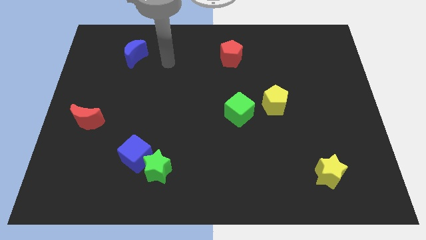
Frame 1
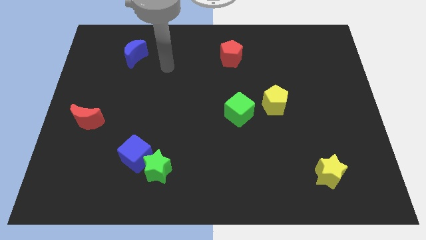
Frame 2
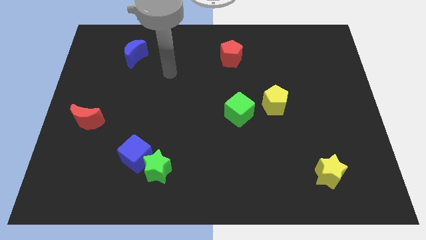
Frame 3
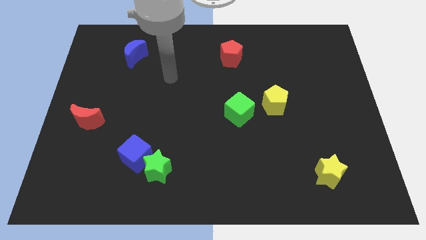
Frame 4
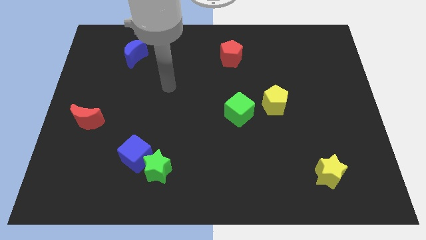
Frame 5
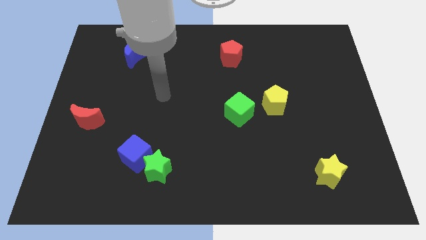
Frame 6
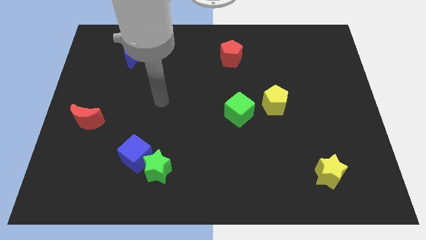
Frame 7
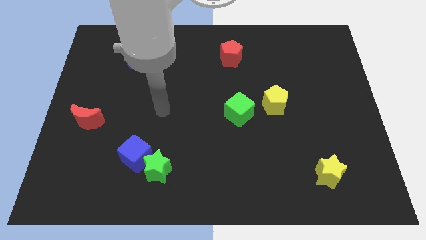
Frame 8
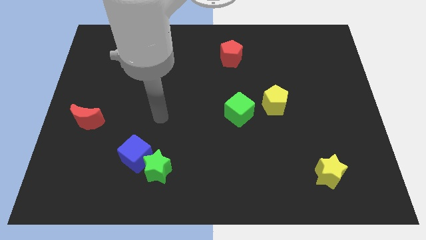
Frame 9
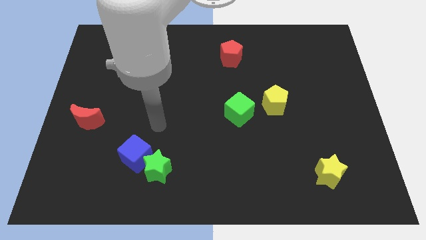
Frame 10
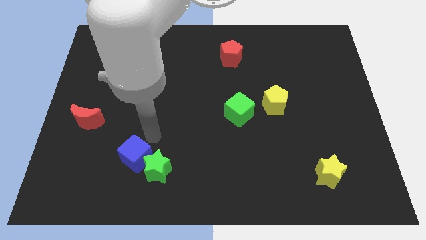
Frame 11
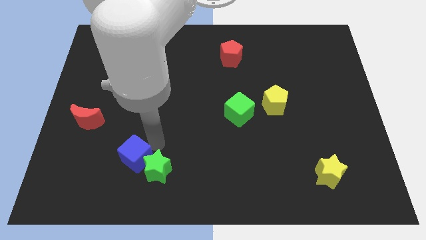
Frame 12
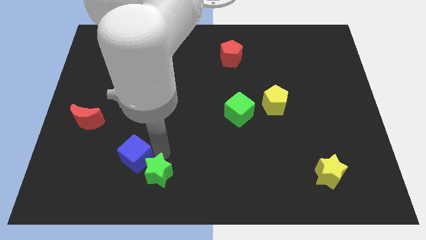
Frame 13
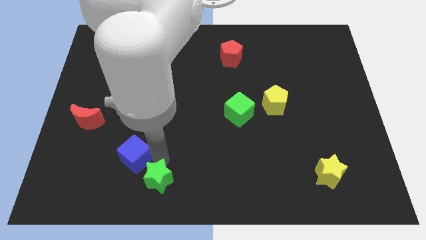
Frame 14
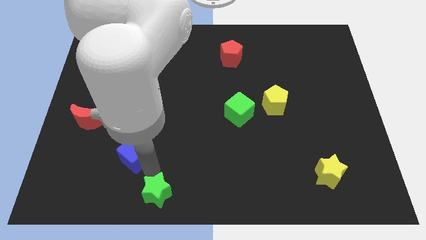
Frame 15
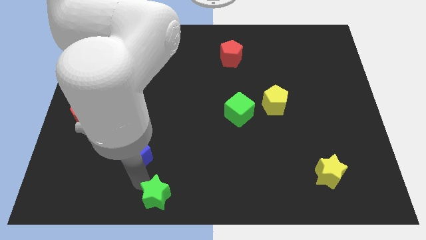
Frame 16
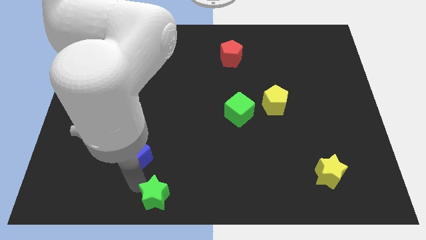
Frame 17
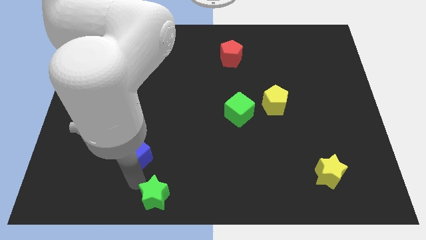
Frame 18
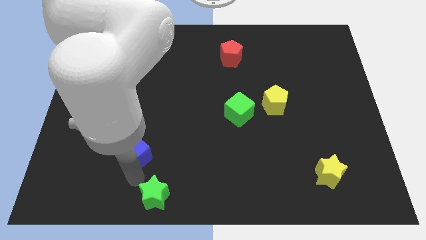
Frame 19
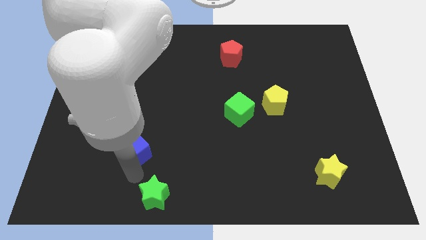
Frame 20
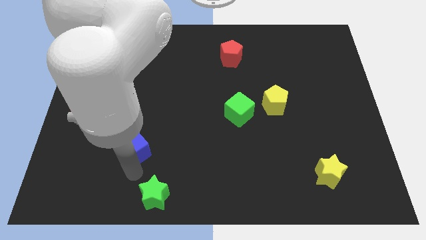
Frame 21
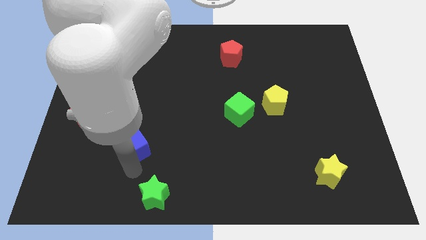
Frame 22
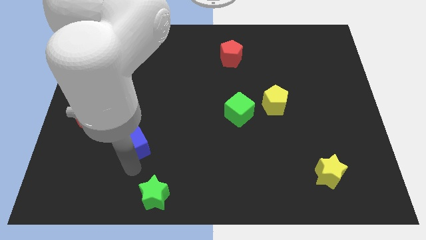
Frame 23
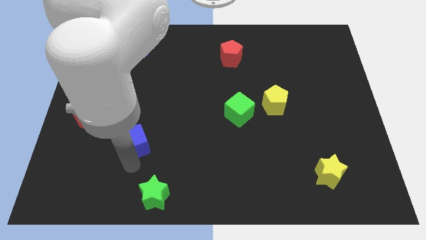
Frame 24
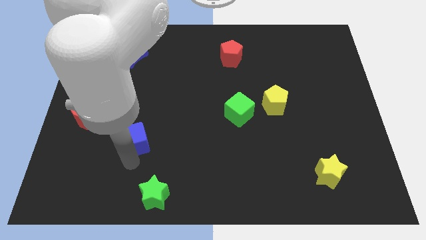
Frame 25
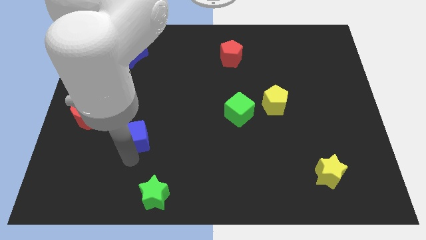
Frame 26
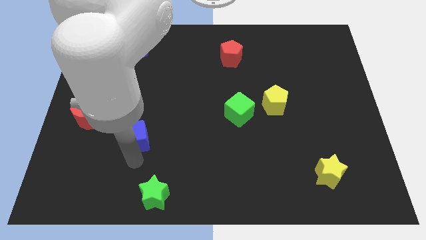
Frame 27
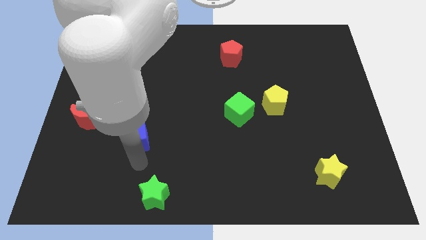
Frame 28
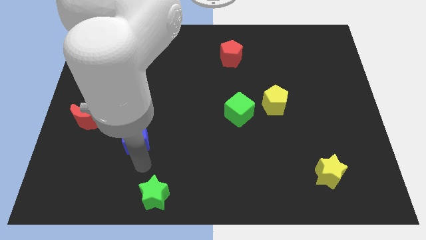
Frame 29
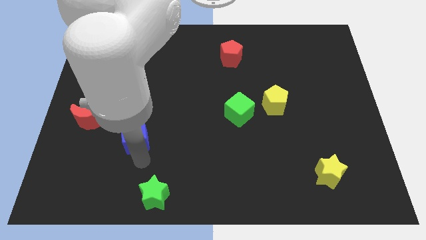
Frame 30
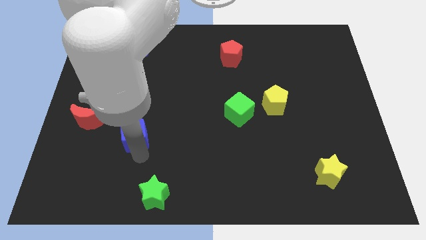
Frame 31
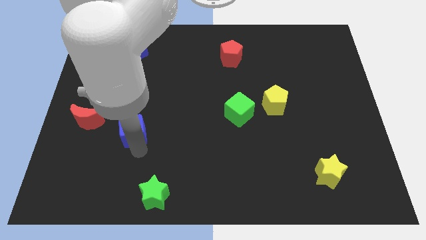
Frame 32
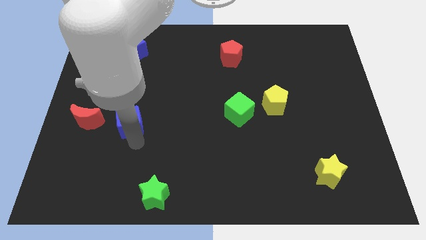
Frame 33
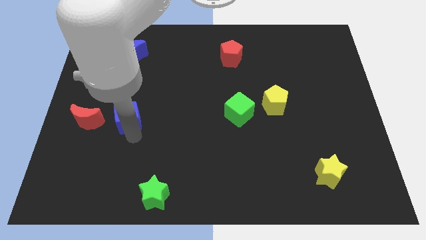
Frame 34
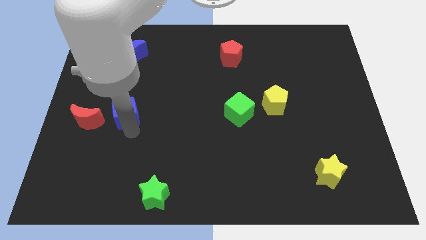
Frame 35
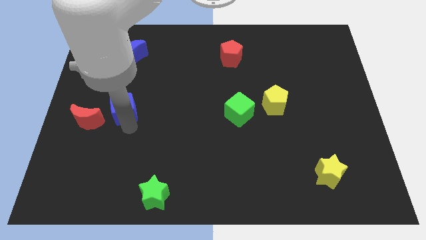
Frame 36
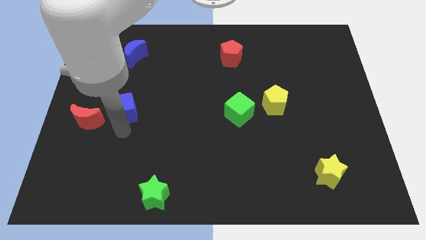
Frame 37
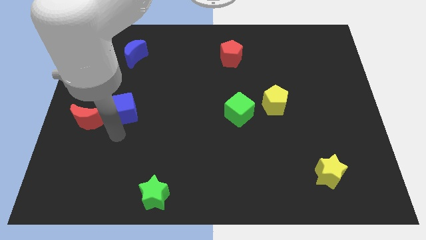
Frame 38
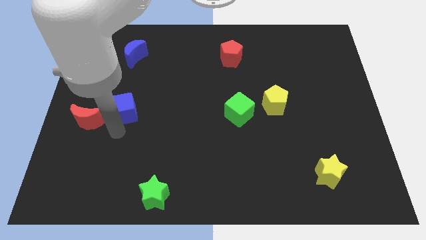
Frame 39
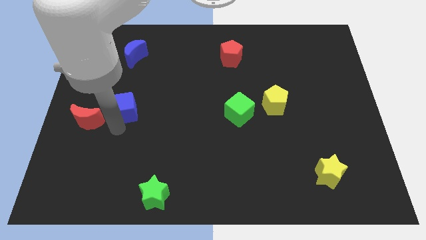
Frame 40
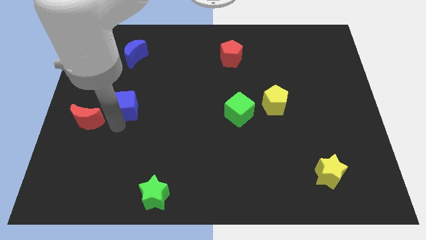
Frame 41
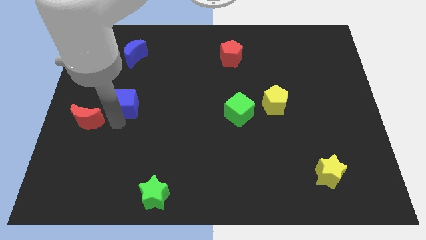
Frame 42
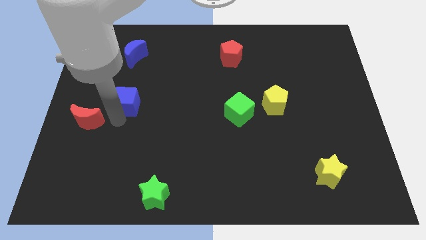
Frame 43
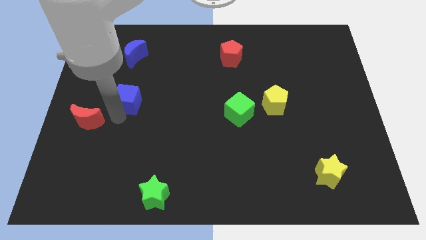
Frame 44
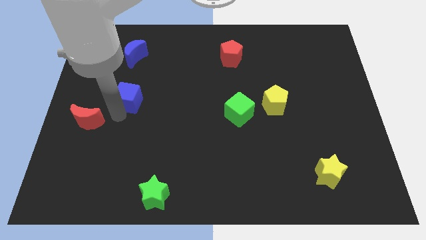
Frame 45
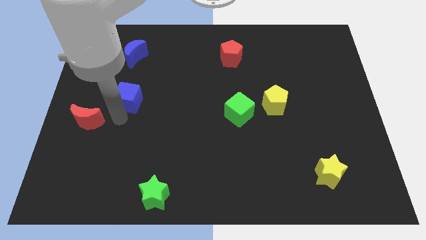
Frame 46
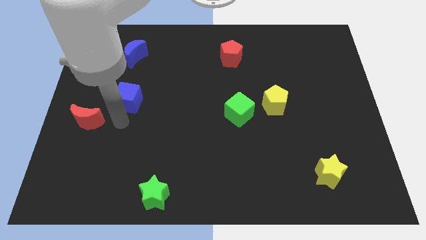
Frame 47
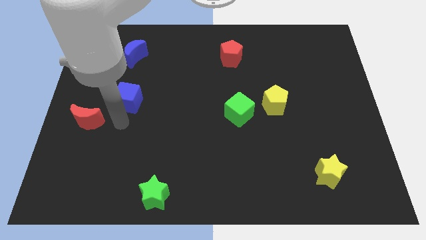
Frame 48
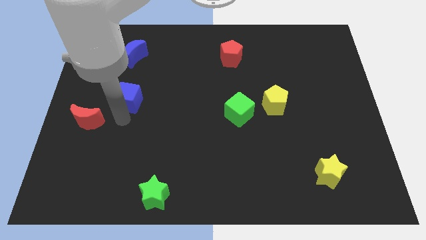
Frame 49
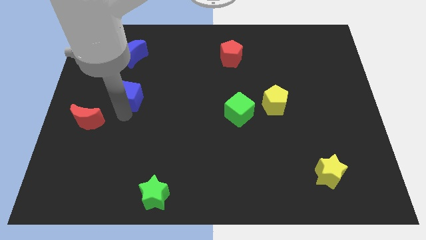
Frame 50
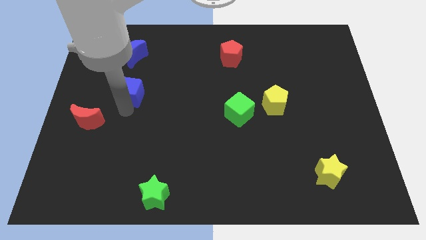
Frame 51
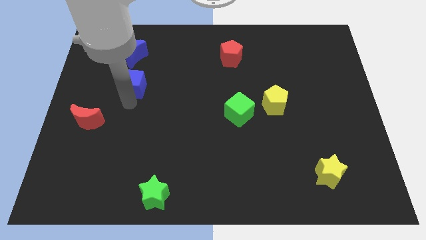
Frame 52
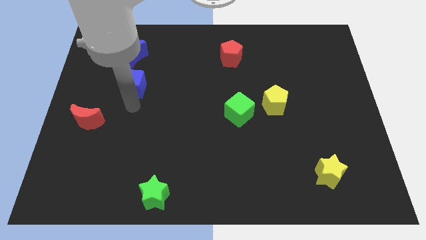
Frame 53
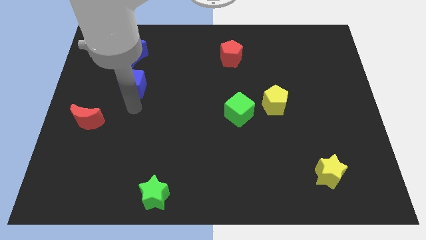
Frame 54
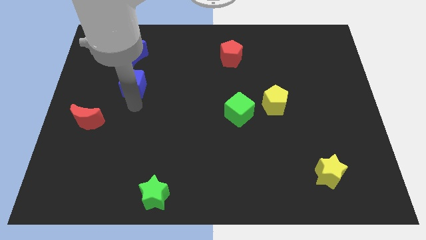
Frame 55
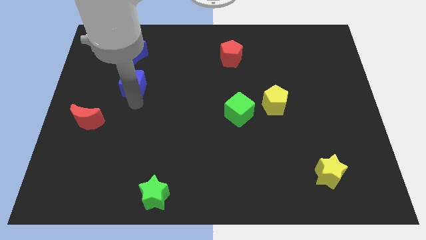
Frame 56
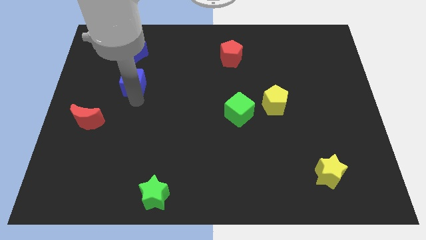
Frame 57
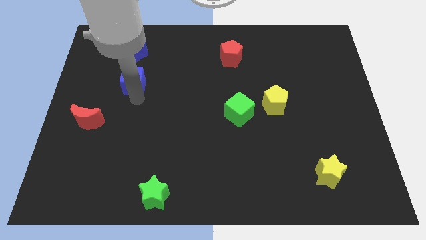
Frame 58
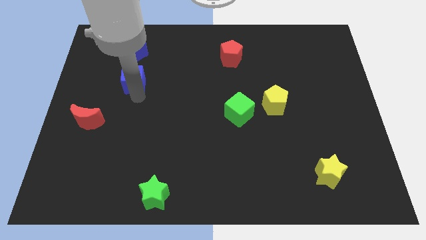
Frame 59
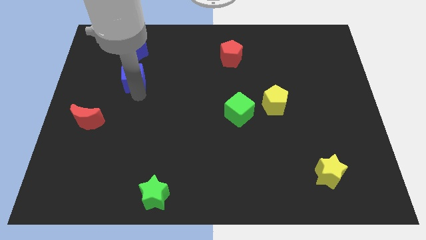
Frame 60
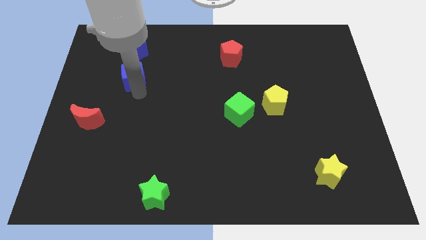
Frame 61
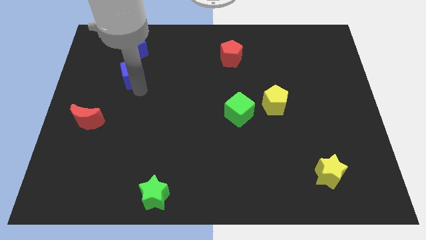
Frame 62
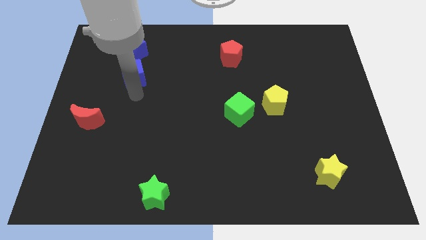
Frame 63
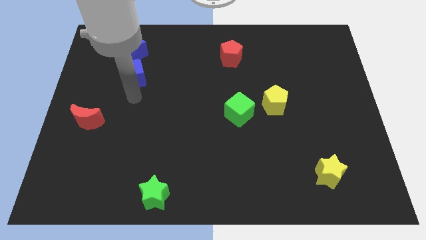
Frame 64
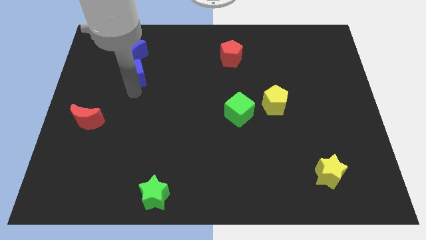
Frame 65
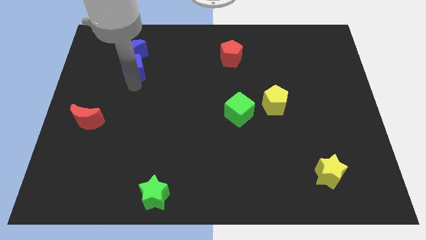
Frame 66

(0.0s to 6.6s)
move the blue cube close to the blue moon

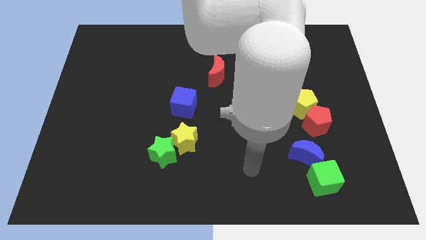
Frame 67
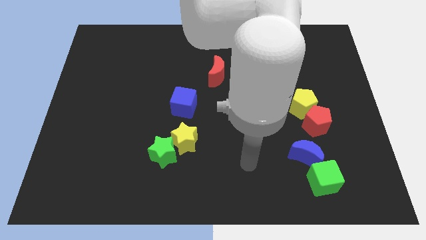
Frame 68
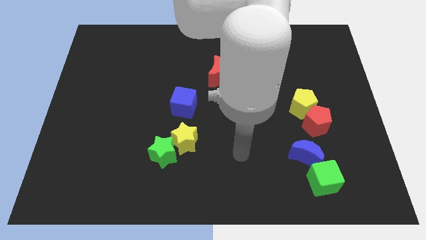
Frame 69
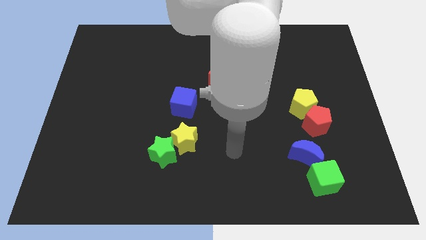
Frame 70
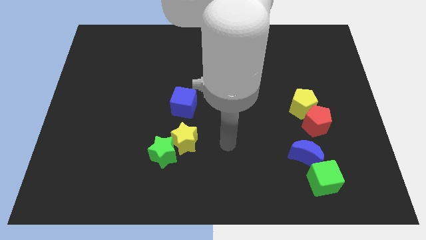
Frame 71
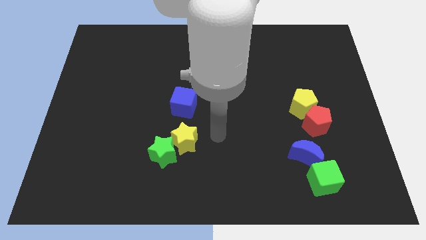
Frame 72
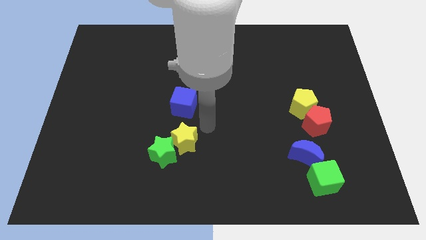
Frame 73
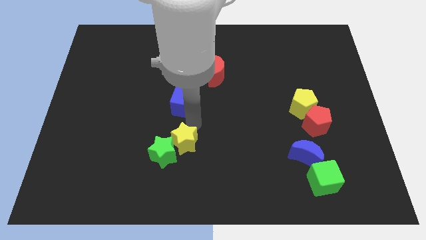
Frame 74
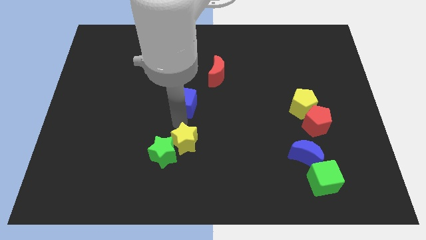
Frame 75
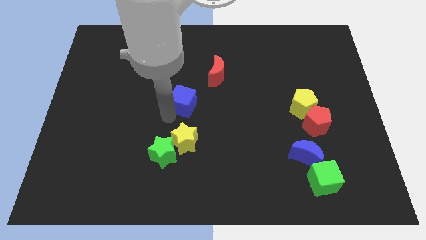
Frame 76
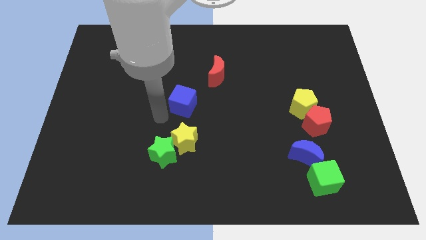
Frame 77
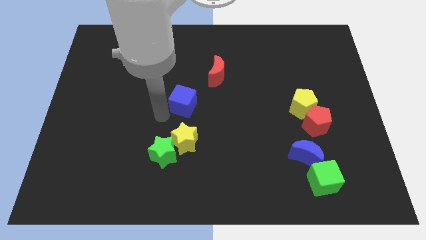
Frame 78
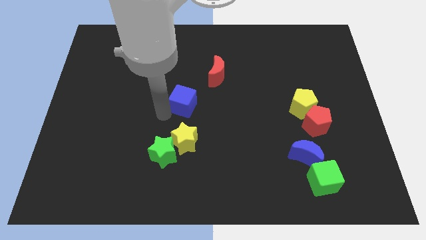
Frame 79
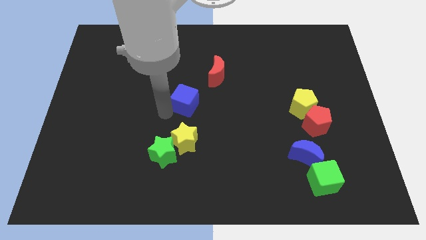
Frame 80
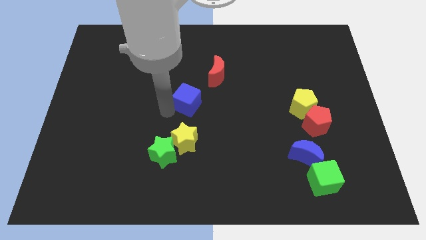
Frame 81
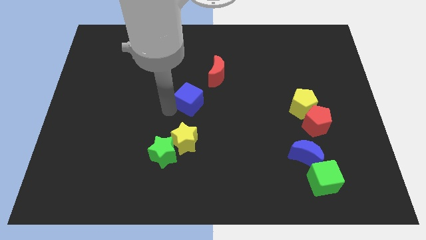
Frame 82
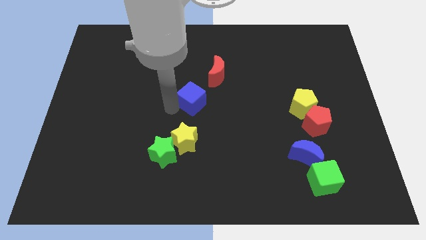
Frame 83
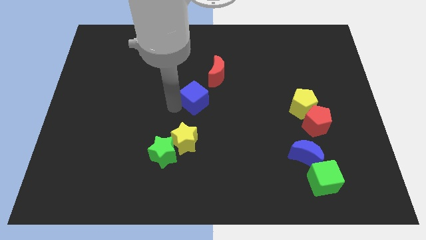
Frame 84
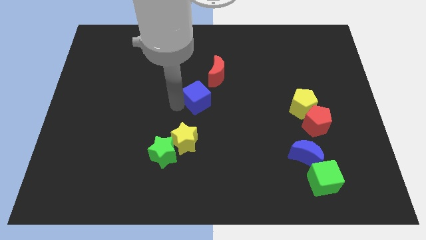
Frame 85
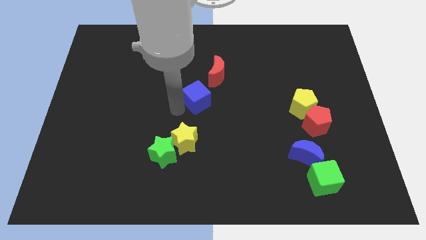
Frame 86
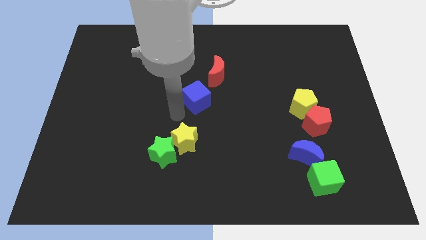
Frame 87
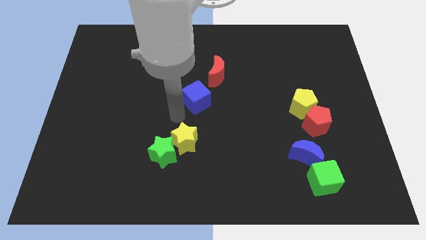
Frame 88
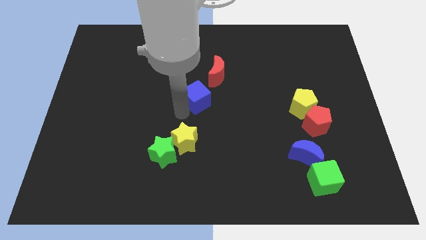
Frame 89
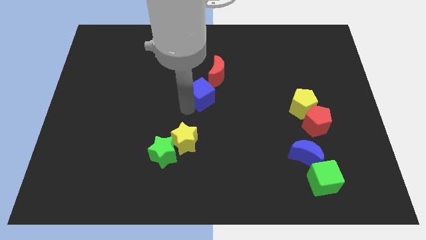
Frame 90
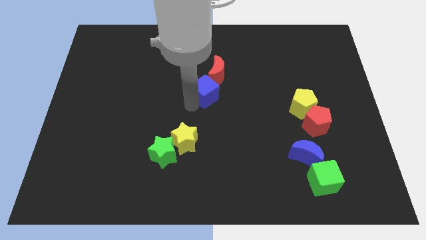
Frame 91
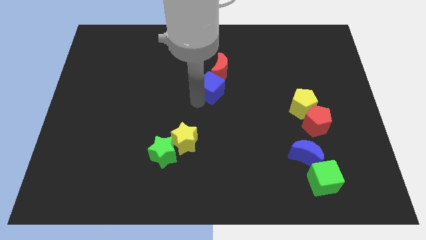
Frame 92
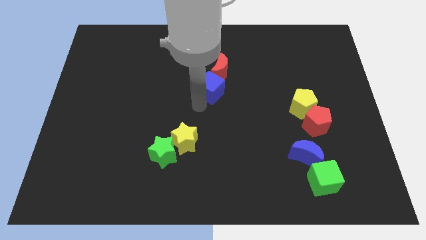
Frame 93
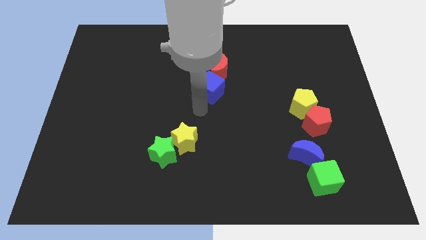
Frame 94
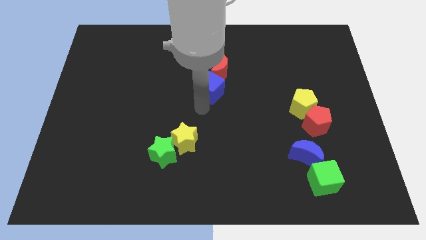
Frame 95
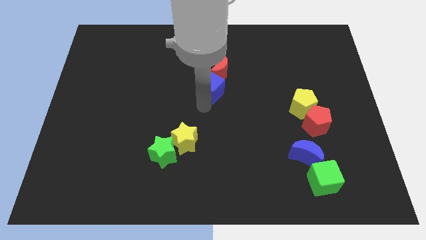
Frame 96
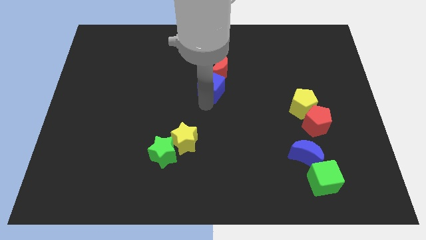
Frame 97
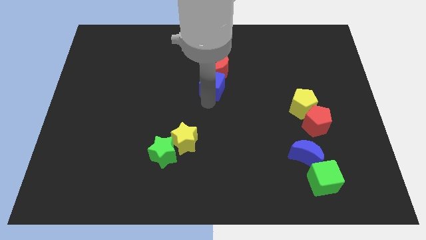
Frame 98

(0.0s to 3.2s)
slide the blue cube close to the red moon
